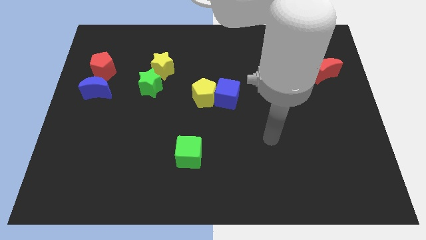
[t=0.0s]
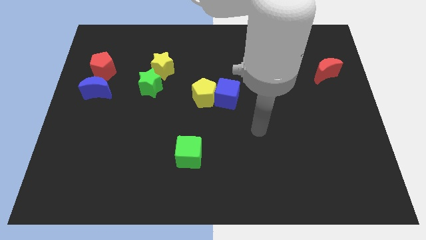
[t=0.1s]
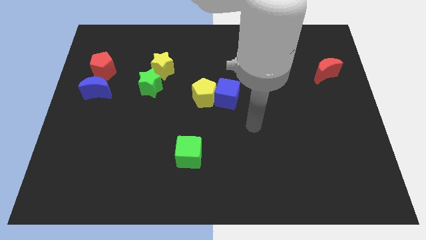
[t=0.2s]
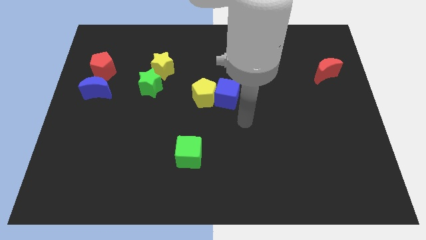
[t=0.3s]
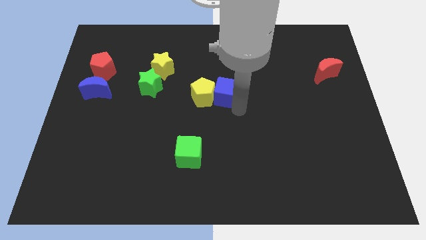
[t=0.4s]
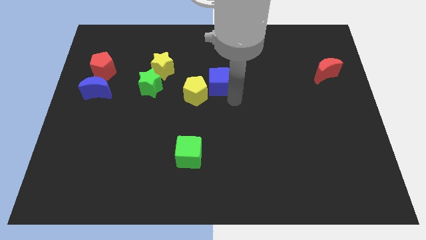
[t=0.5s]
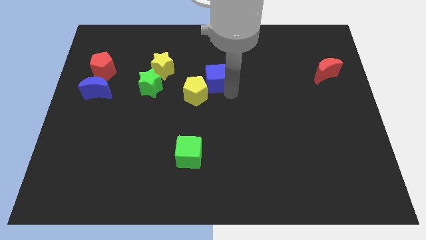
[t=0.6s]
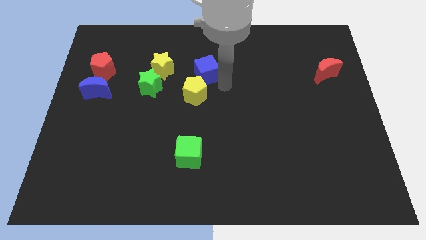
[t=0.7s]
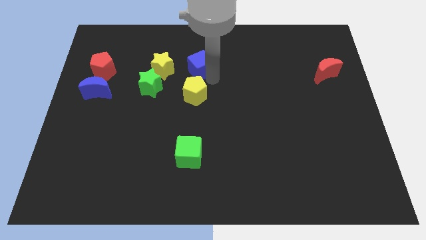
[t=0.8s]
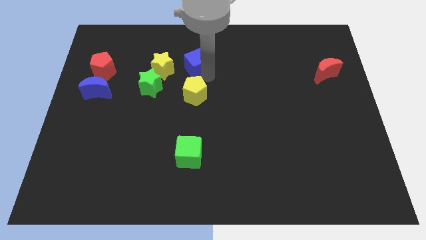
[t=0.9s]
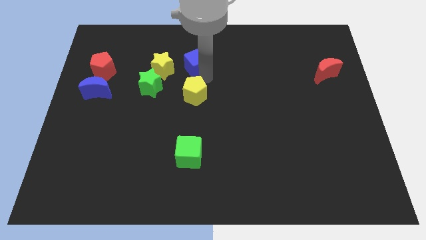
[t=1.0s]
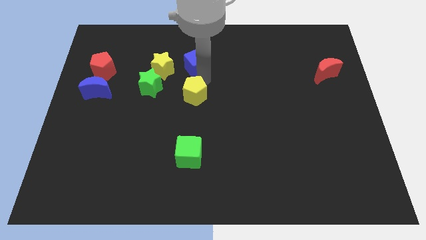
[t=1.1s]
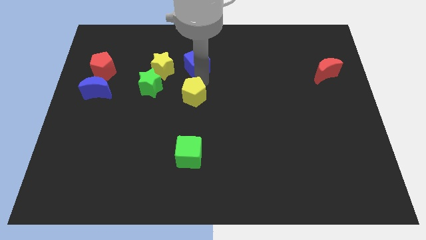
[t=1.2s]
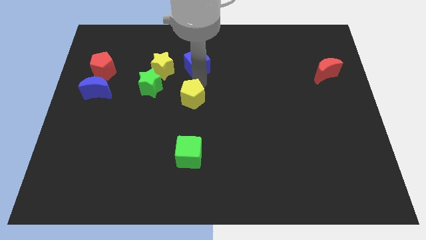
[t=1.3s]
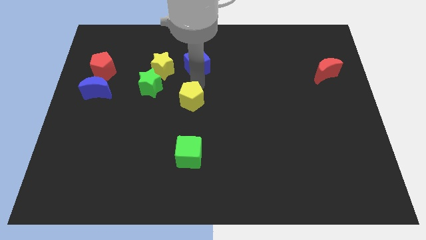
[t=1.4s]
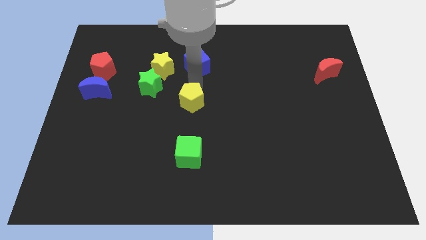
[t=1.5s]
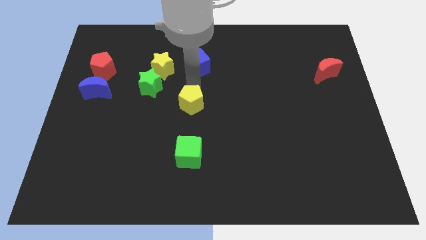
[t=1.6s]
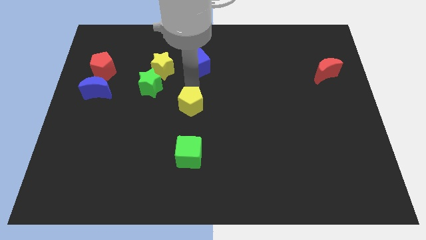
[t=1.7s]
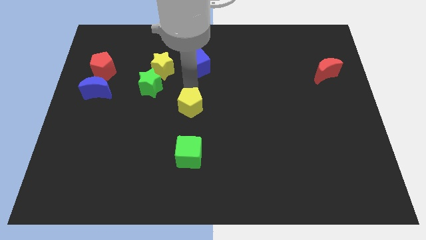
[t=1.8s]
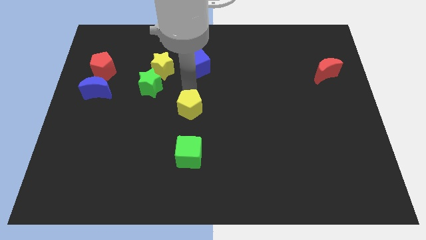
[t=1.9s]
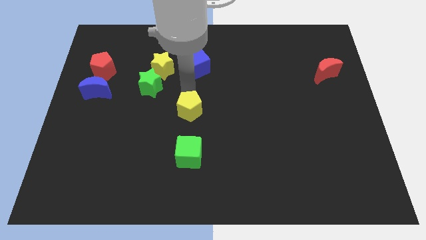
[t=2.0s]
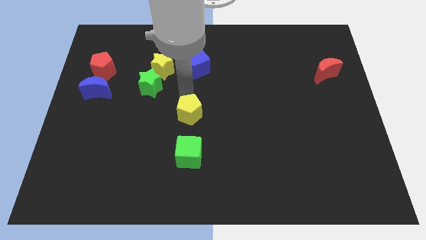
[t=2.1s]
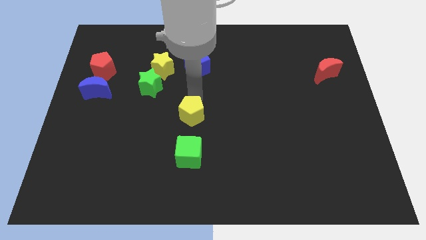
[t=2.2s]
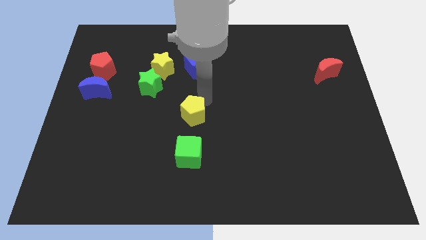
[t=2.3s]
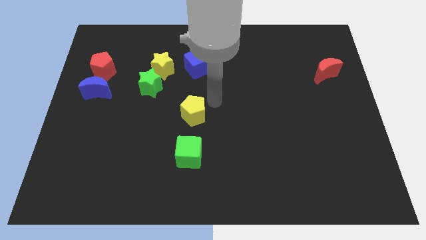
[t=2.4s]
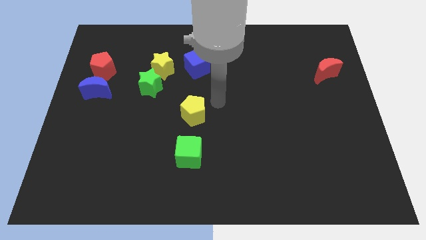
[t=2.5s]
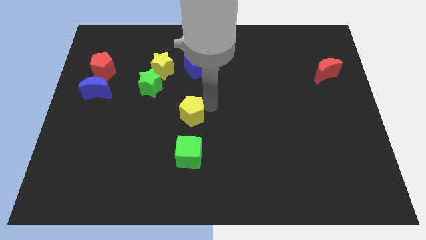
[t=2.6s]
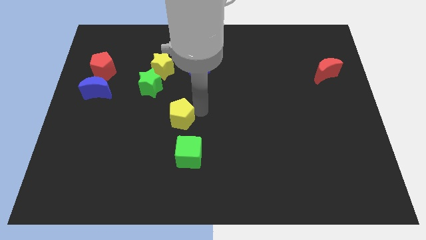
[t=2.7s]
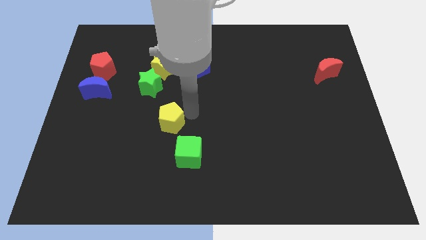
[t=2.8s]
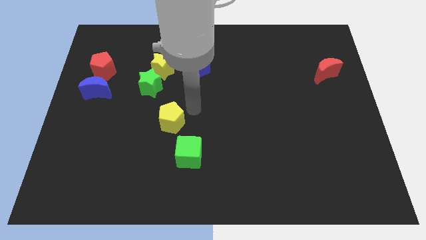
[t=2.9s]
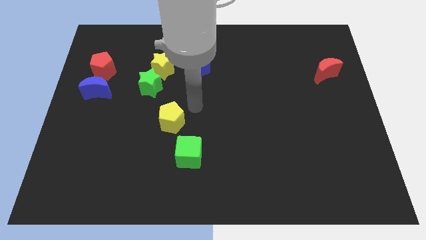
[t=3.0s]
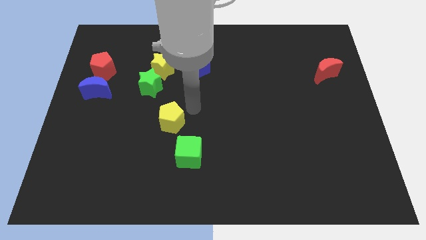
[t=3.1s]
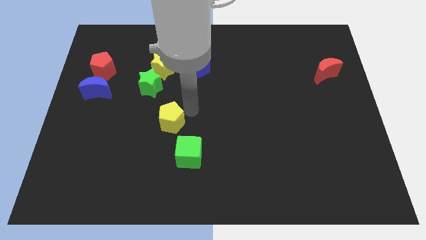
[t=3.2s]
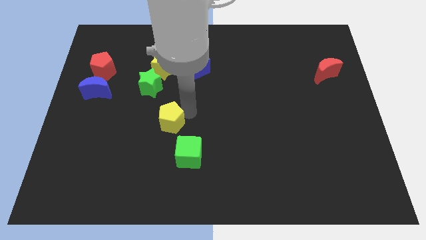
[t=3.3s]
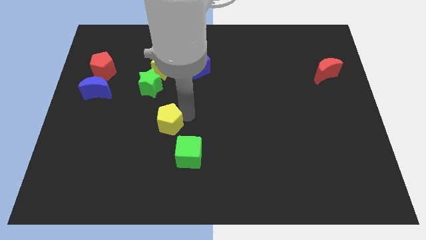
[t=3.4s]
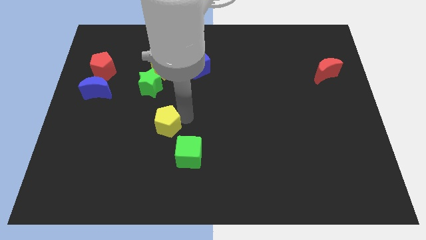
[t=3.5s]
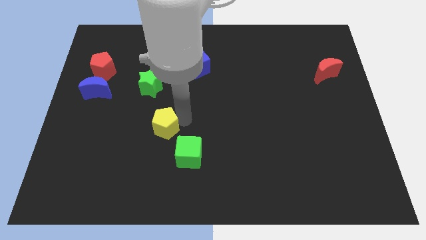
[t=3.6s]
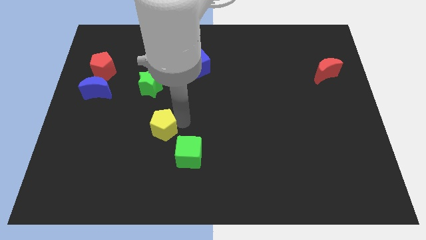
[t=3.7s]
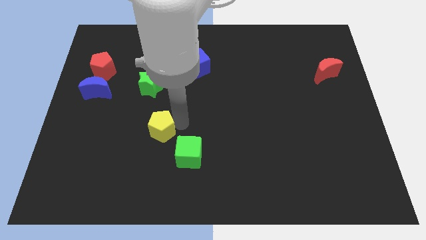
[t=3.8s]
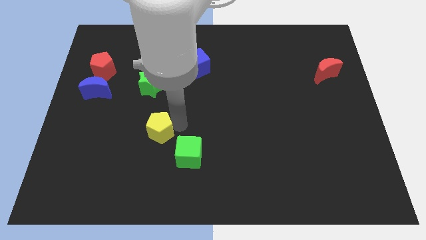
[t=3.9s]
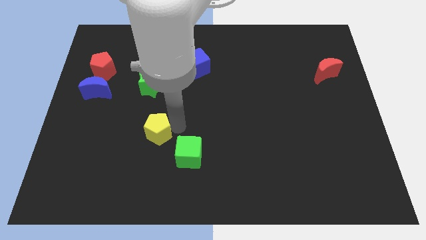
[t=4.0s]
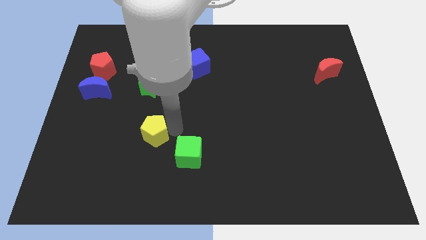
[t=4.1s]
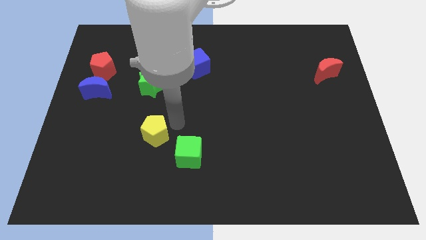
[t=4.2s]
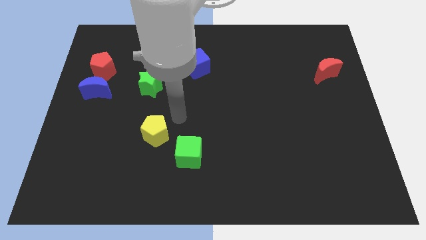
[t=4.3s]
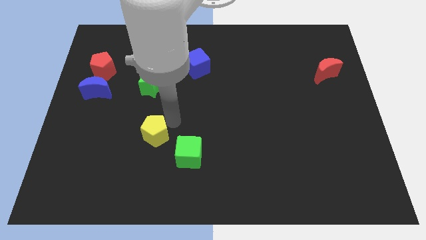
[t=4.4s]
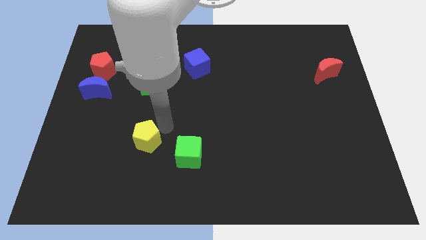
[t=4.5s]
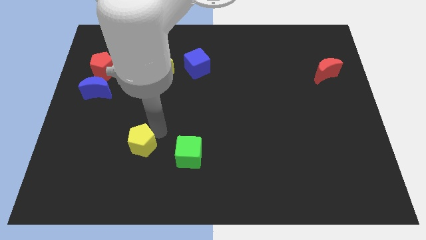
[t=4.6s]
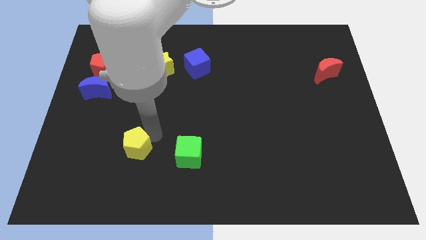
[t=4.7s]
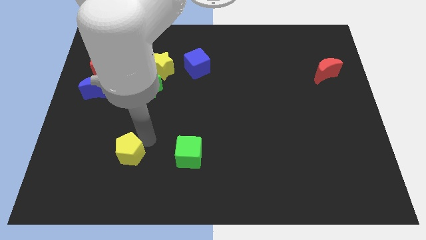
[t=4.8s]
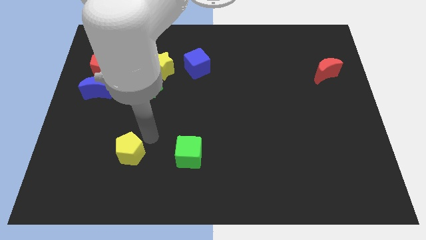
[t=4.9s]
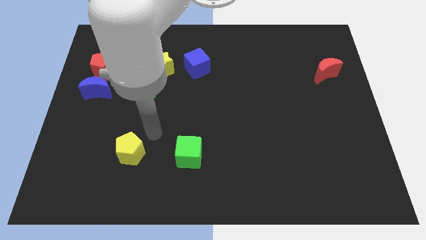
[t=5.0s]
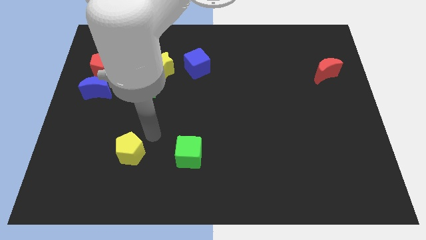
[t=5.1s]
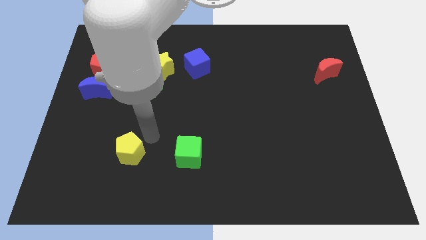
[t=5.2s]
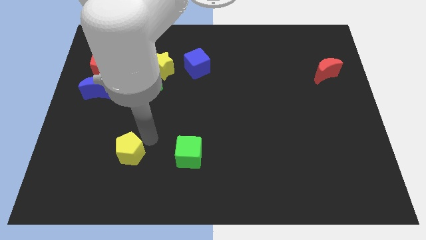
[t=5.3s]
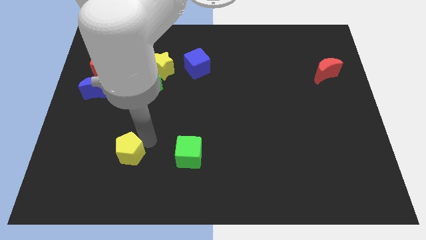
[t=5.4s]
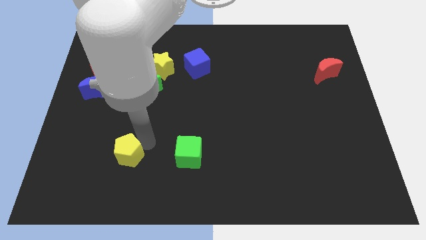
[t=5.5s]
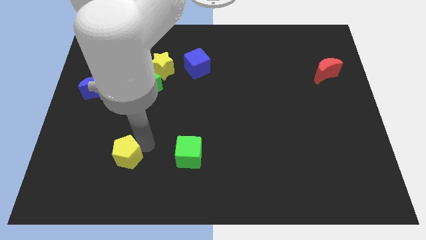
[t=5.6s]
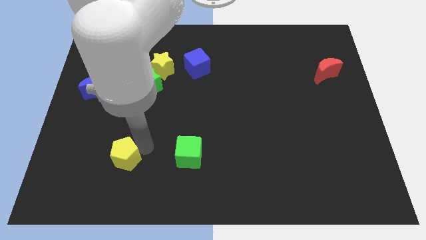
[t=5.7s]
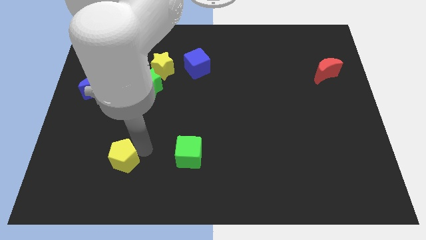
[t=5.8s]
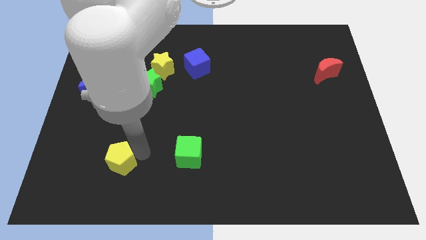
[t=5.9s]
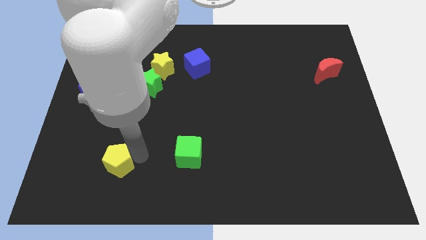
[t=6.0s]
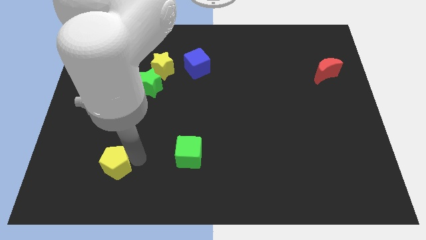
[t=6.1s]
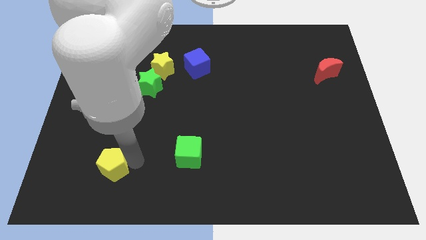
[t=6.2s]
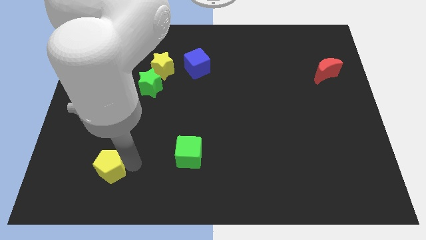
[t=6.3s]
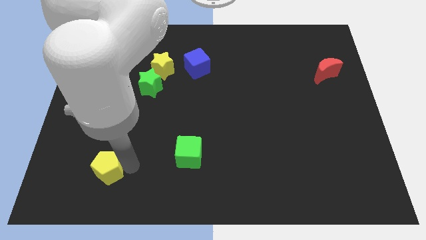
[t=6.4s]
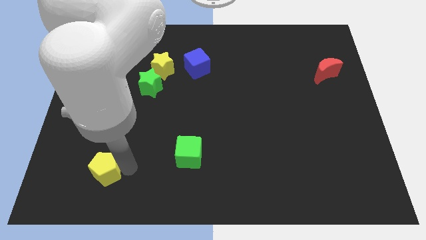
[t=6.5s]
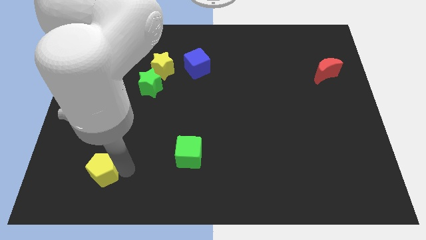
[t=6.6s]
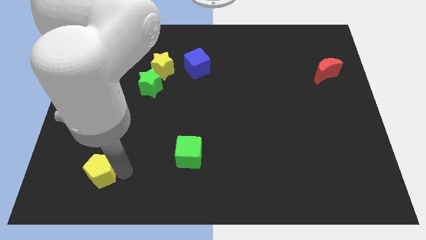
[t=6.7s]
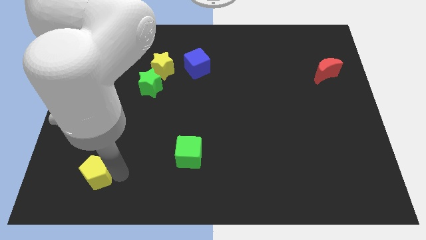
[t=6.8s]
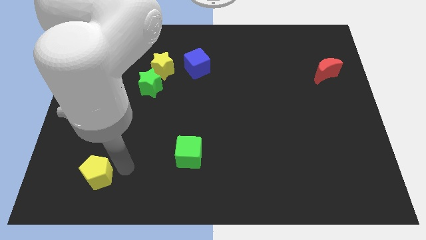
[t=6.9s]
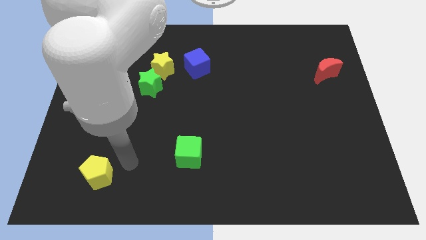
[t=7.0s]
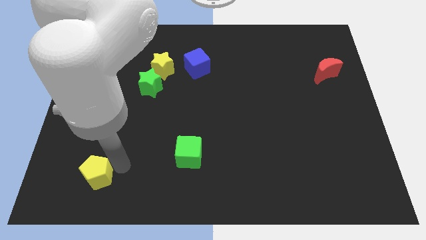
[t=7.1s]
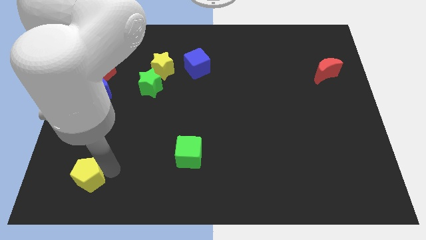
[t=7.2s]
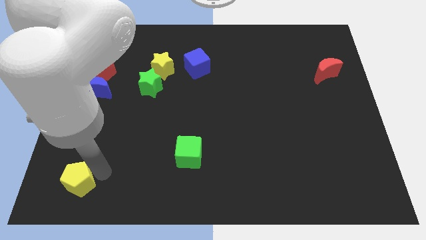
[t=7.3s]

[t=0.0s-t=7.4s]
slide the yellow pentagon to the bottom left corner
